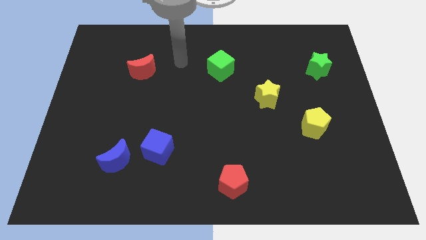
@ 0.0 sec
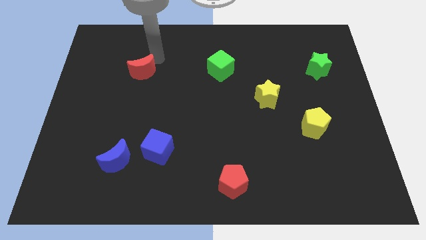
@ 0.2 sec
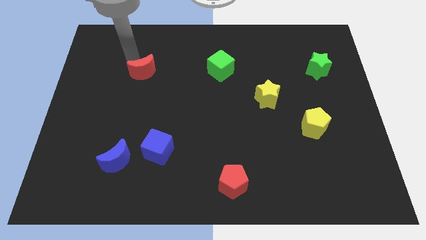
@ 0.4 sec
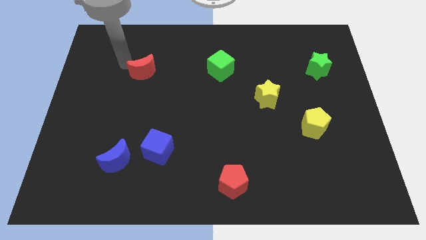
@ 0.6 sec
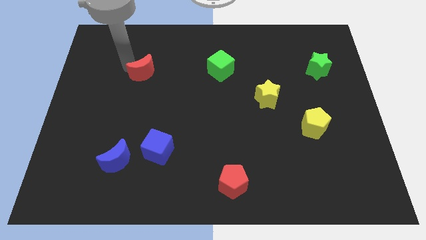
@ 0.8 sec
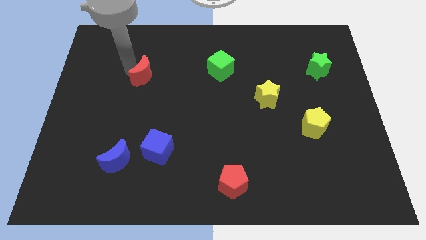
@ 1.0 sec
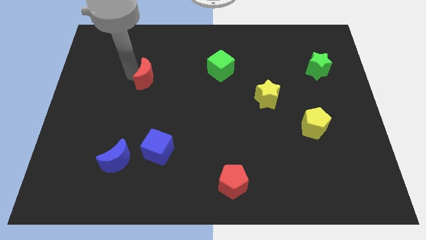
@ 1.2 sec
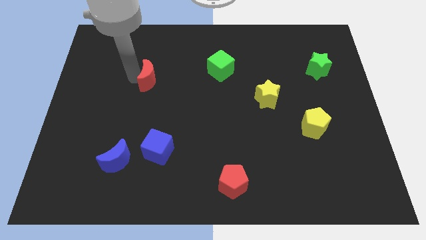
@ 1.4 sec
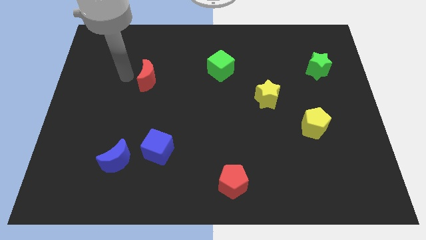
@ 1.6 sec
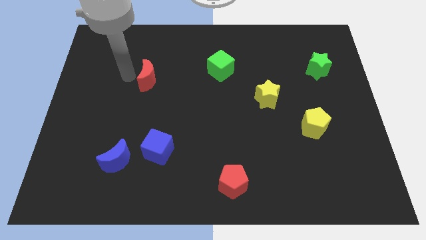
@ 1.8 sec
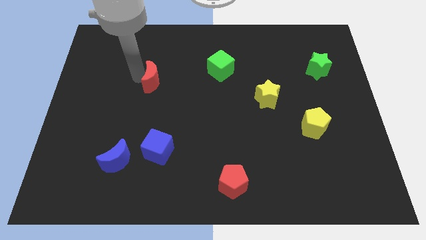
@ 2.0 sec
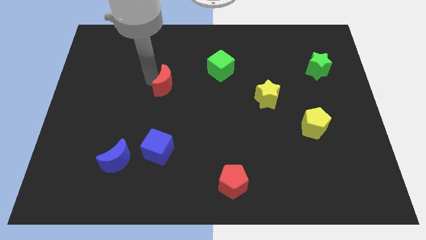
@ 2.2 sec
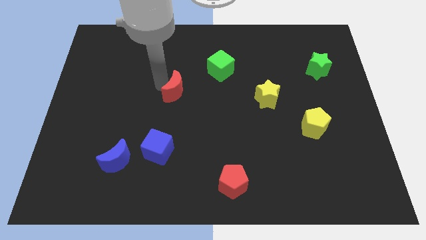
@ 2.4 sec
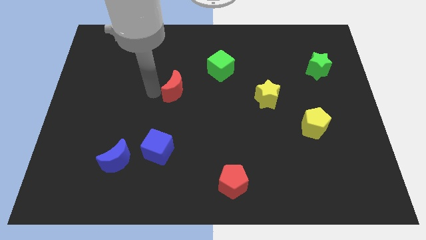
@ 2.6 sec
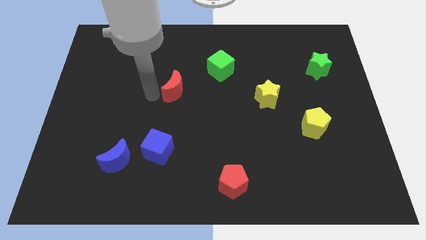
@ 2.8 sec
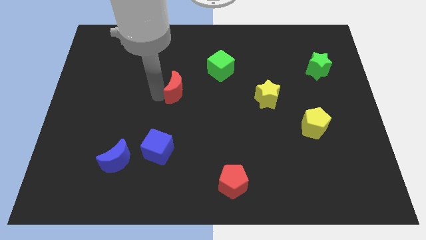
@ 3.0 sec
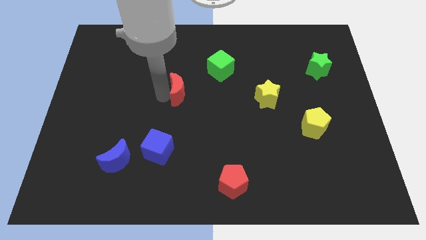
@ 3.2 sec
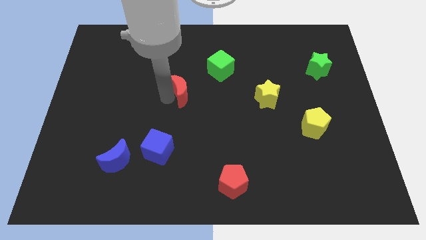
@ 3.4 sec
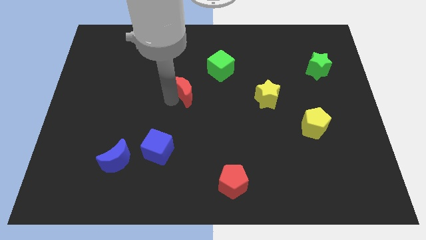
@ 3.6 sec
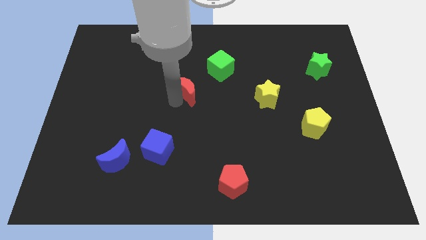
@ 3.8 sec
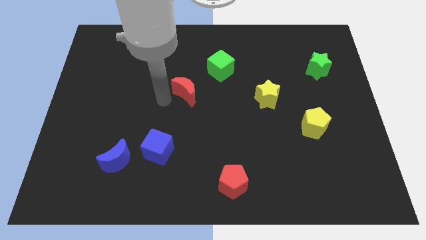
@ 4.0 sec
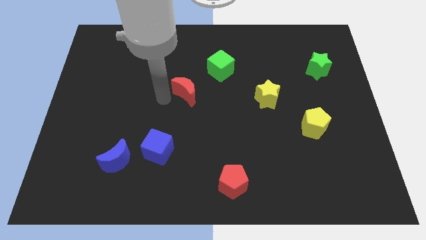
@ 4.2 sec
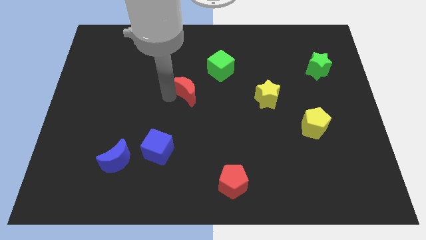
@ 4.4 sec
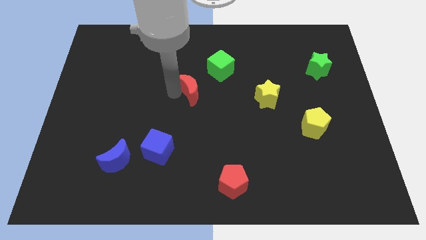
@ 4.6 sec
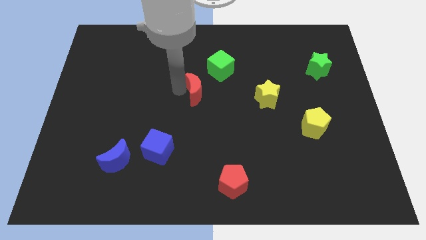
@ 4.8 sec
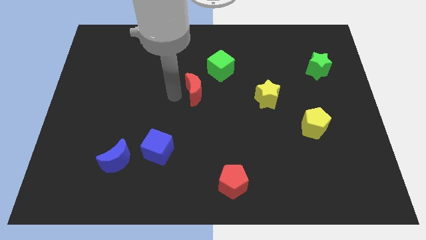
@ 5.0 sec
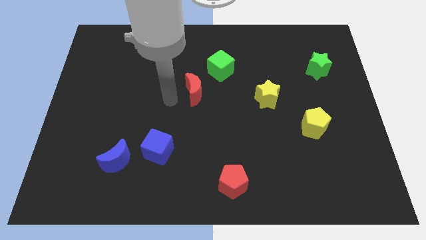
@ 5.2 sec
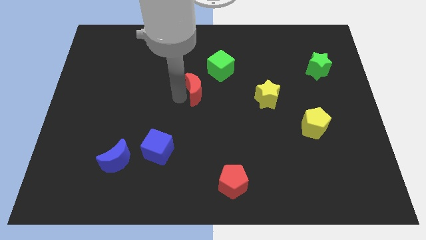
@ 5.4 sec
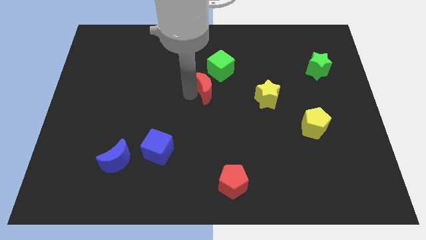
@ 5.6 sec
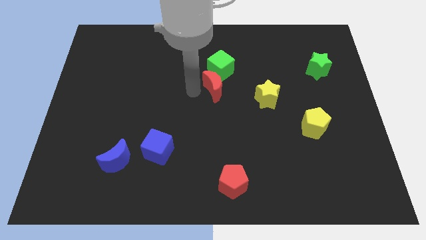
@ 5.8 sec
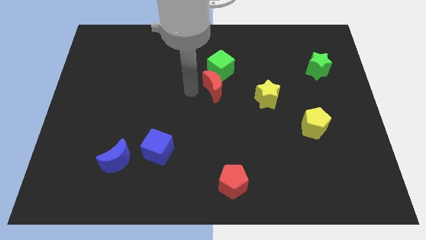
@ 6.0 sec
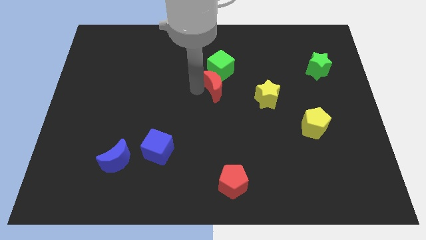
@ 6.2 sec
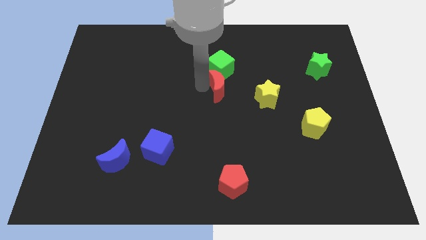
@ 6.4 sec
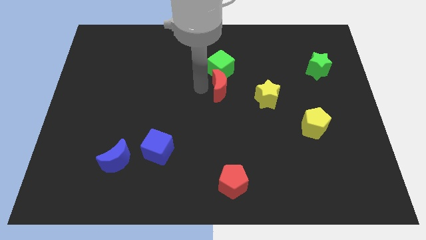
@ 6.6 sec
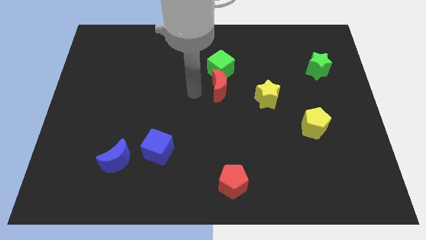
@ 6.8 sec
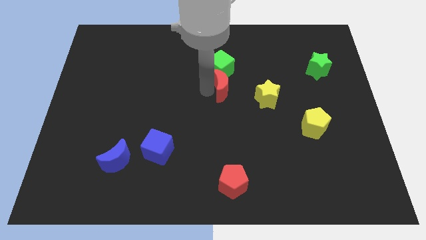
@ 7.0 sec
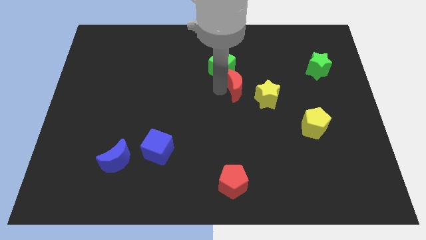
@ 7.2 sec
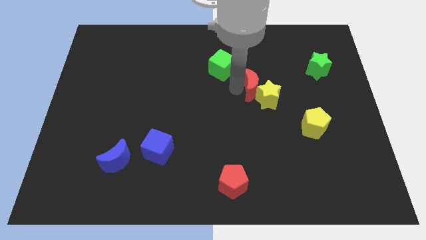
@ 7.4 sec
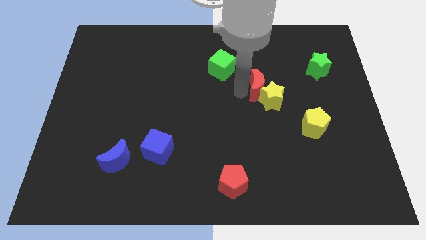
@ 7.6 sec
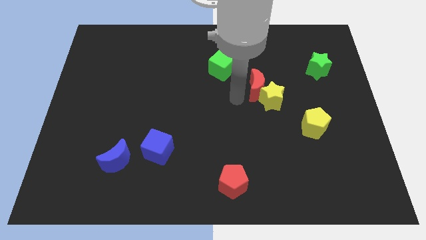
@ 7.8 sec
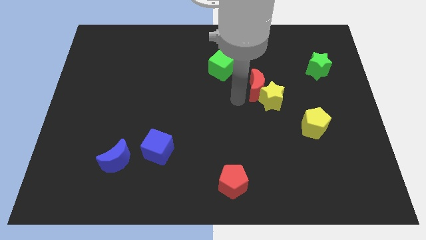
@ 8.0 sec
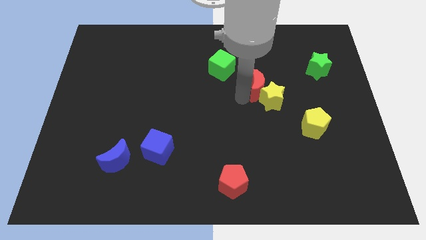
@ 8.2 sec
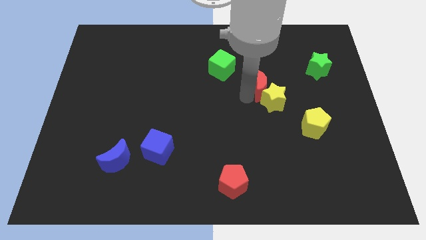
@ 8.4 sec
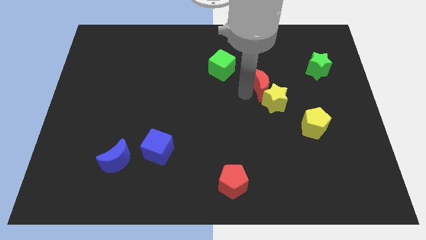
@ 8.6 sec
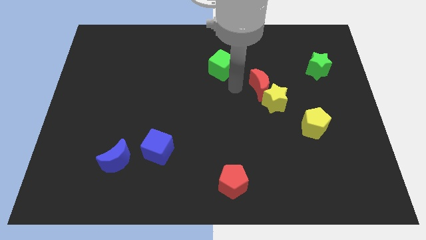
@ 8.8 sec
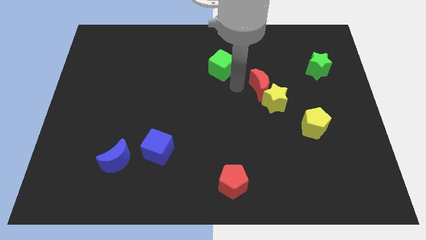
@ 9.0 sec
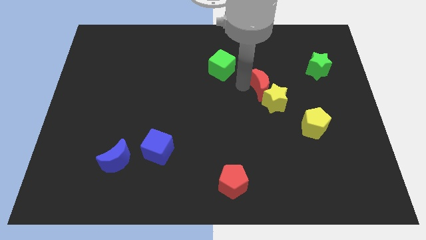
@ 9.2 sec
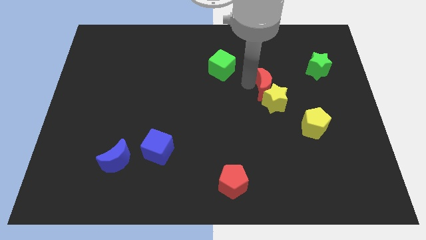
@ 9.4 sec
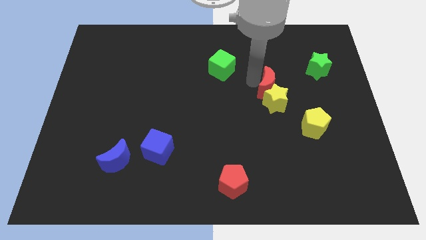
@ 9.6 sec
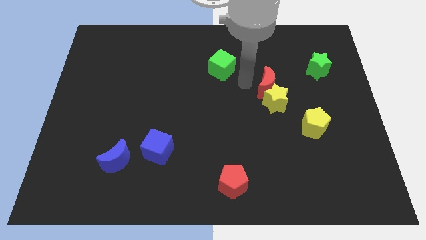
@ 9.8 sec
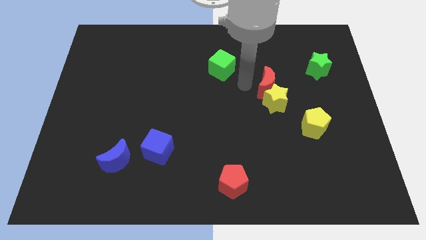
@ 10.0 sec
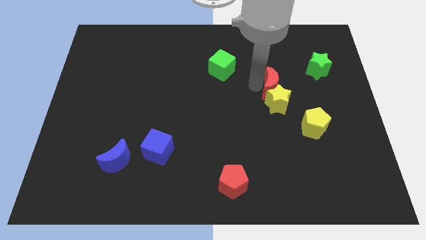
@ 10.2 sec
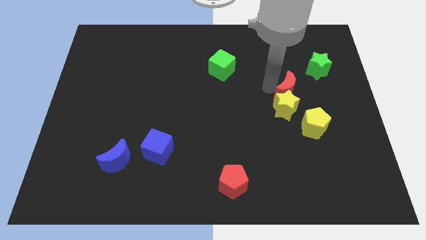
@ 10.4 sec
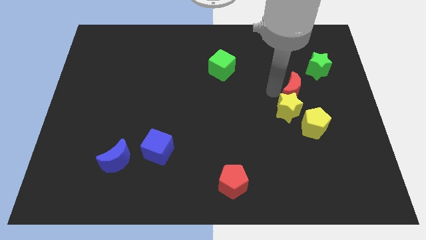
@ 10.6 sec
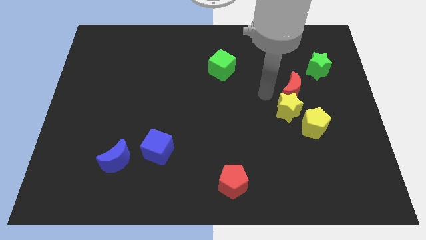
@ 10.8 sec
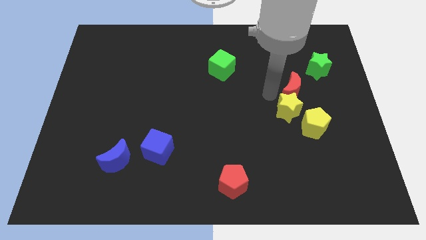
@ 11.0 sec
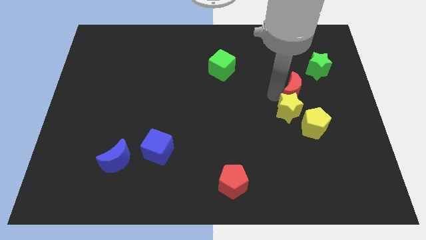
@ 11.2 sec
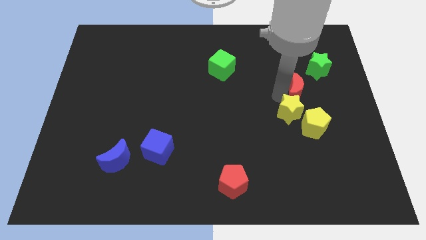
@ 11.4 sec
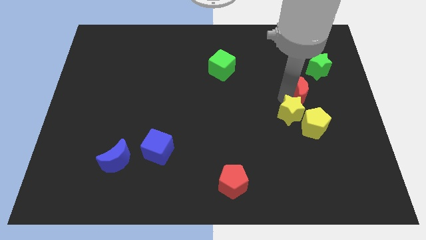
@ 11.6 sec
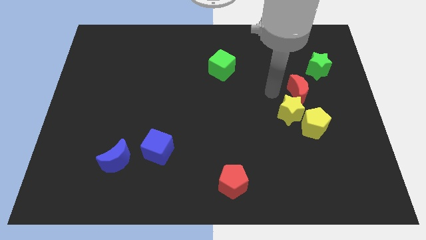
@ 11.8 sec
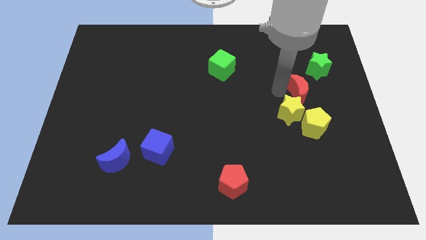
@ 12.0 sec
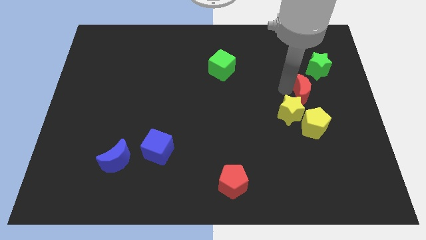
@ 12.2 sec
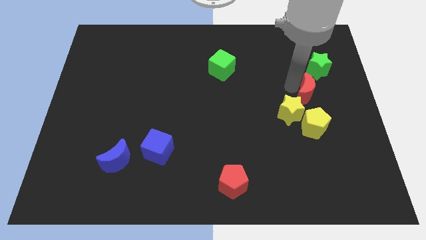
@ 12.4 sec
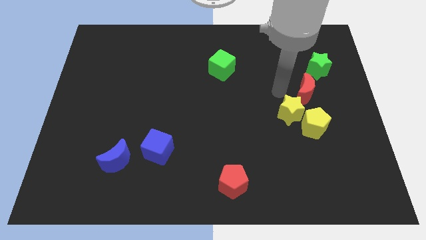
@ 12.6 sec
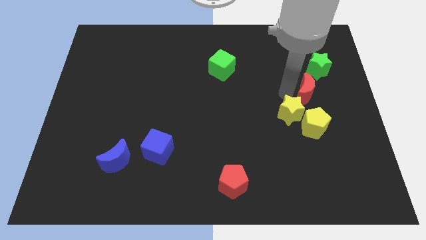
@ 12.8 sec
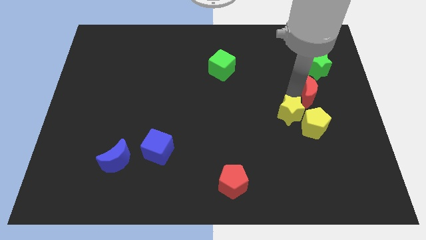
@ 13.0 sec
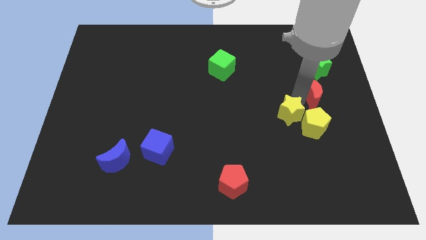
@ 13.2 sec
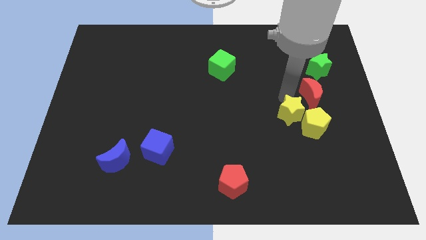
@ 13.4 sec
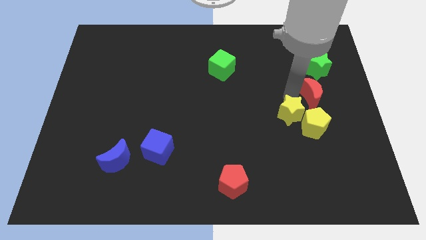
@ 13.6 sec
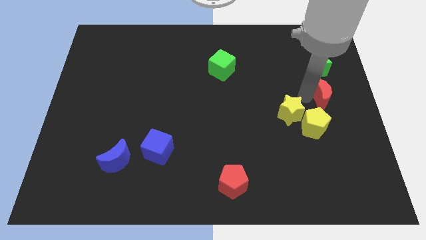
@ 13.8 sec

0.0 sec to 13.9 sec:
put the red moon to the right side
